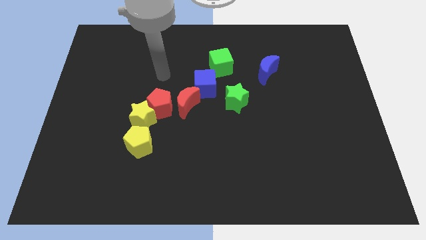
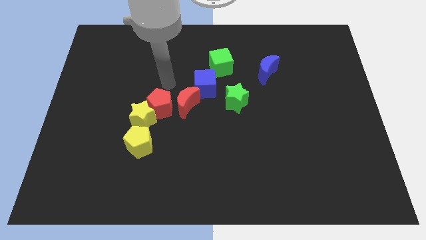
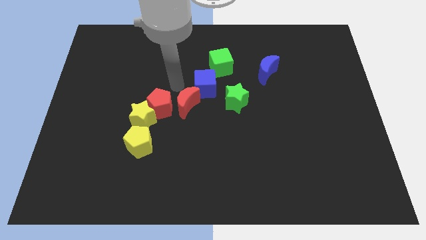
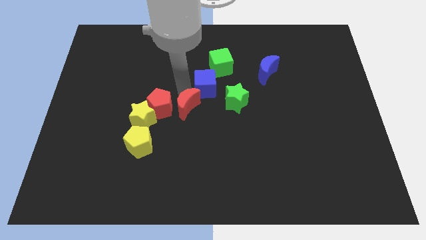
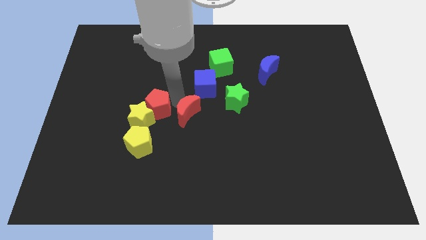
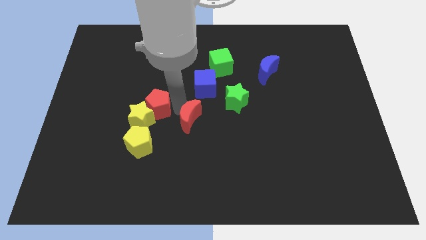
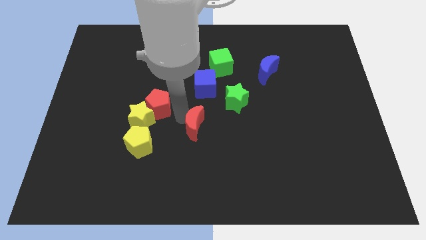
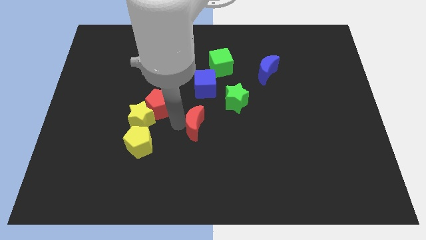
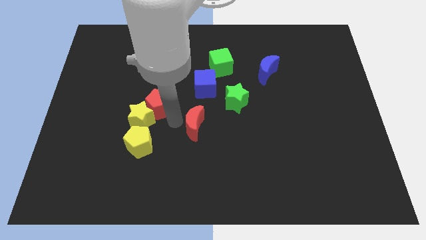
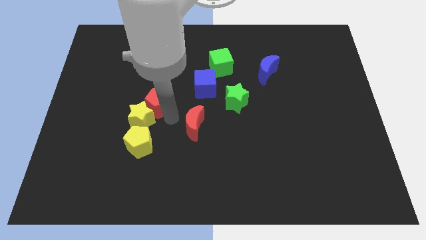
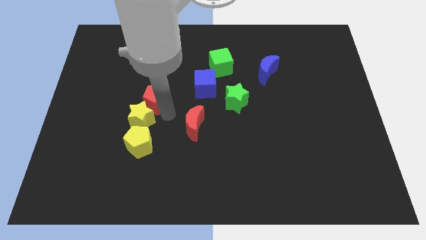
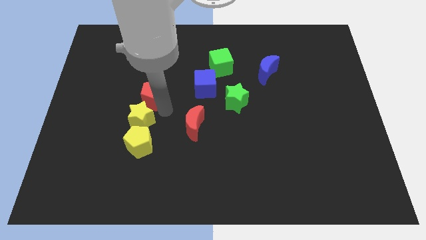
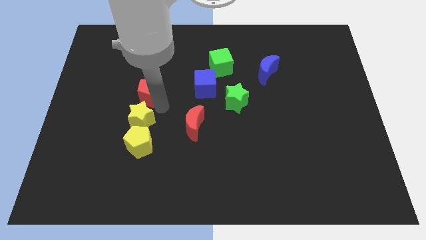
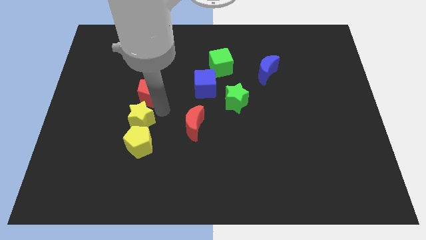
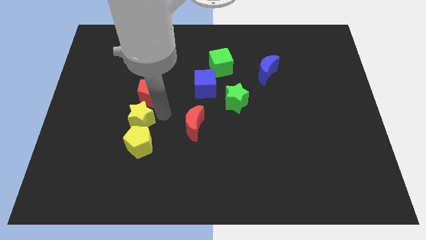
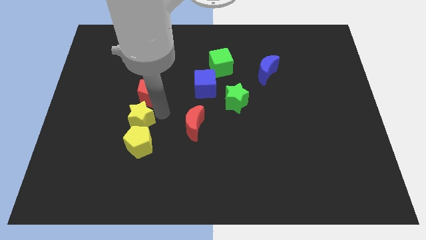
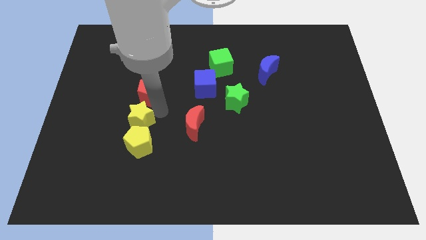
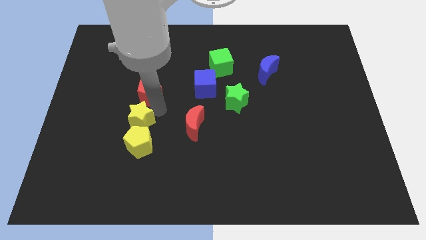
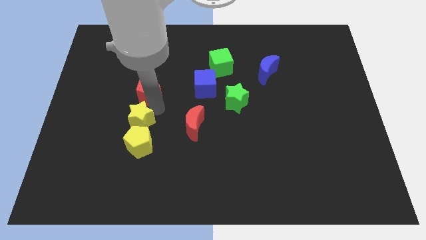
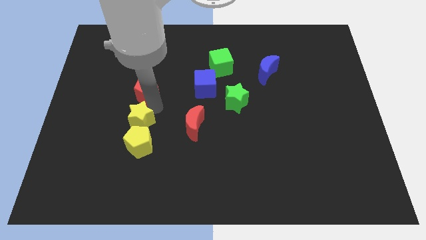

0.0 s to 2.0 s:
move the red pentagon away from the yellow star and red moon

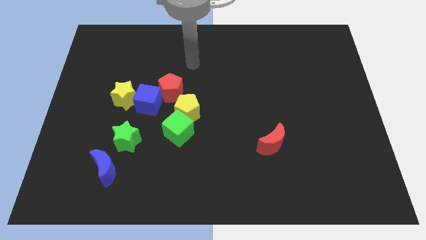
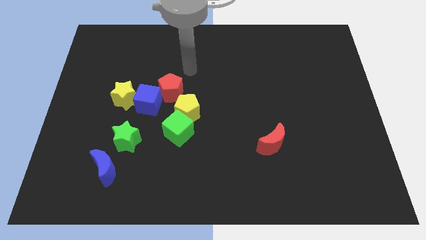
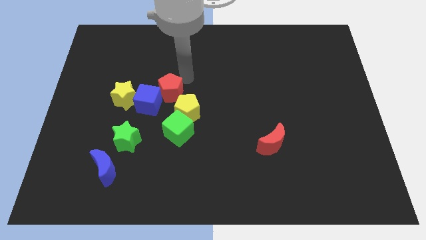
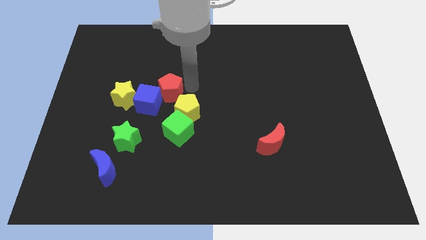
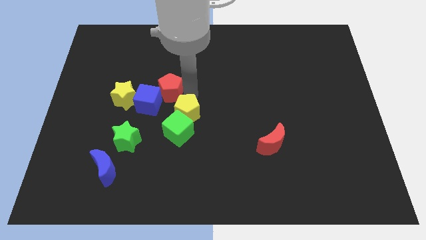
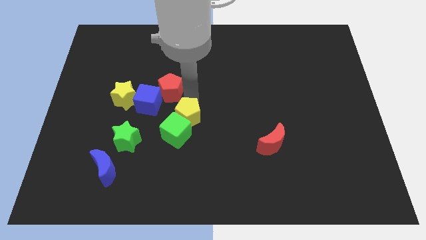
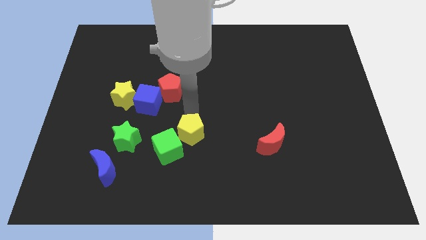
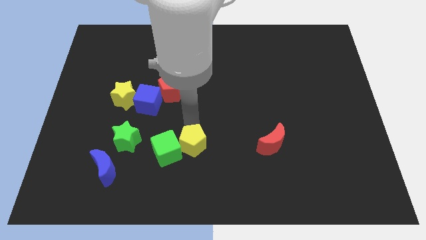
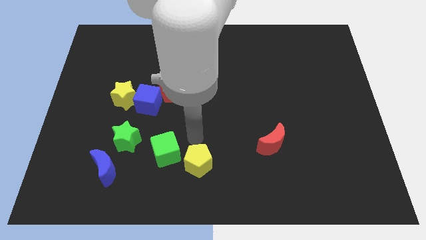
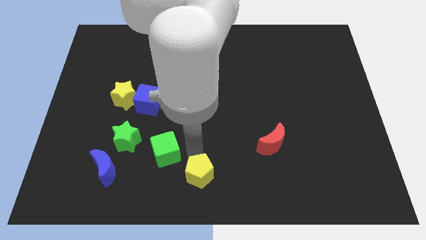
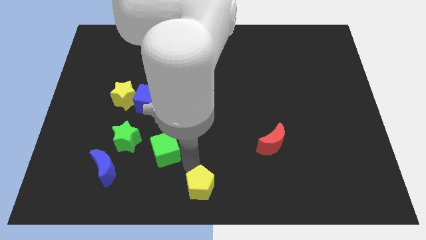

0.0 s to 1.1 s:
separate the green cube from the yellow pentagon

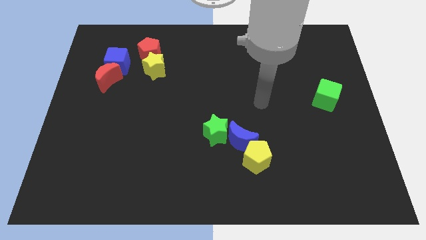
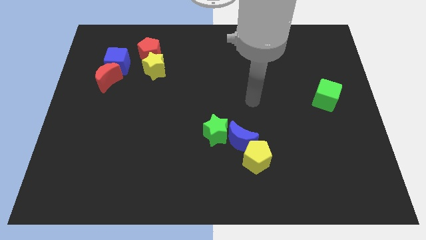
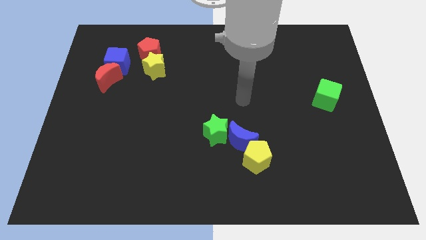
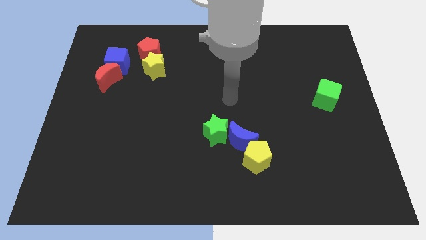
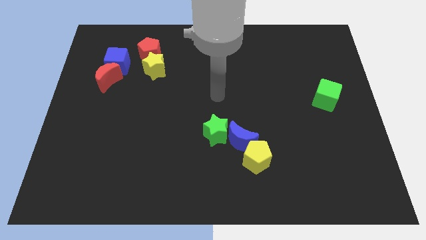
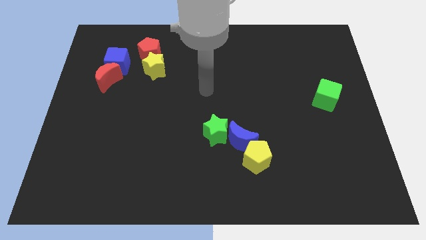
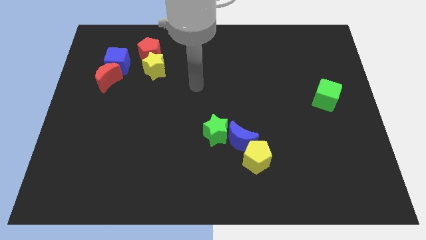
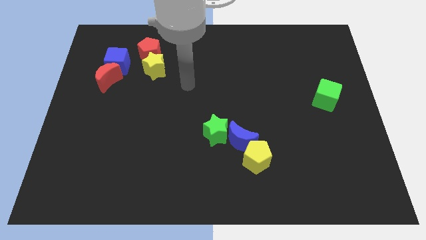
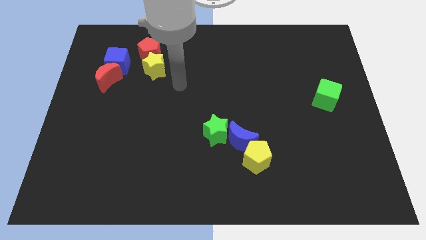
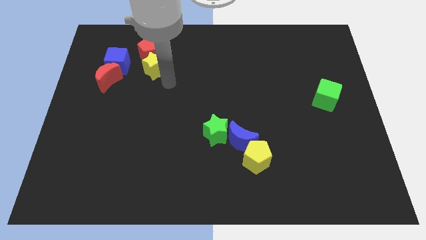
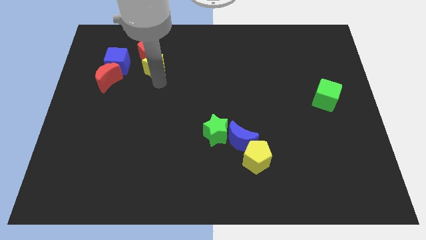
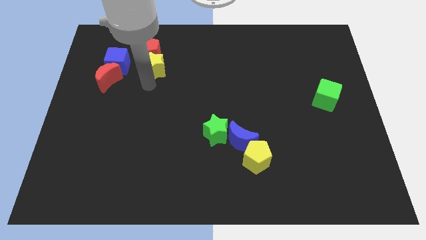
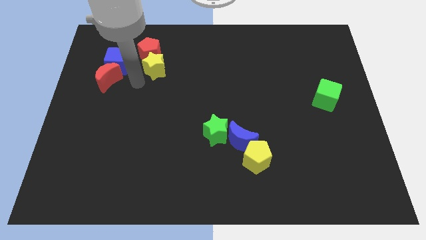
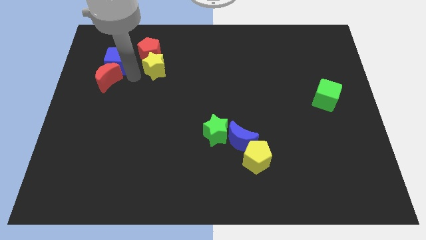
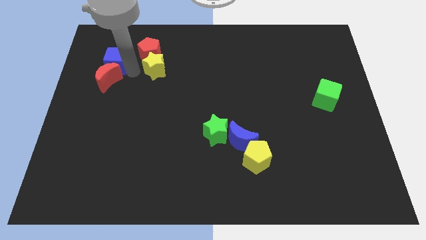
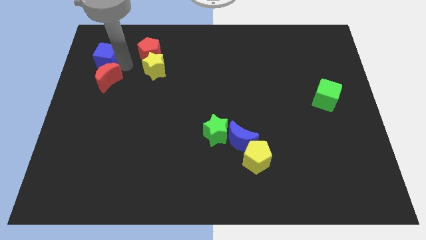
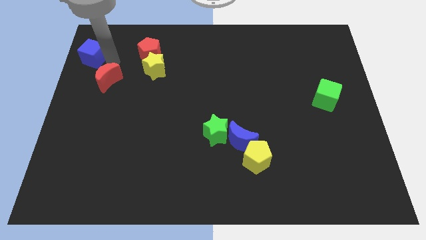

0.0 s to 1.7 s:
move the red moon away from the blue cube

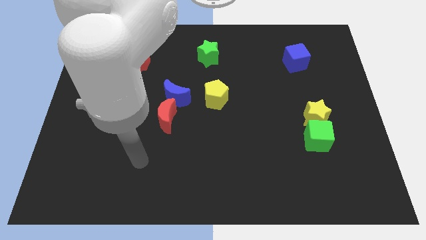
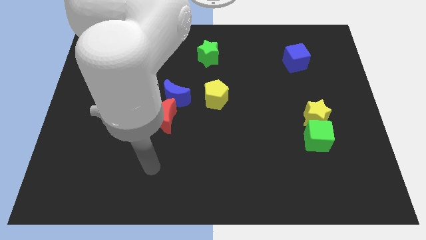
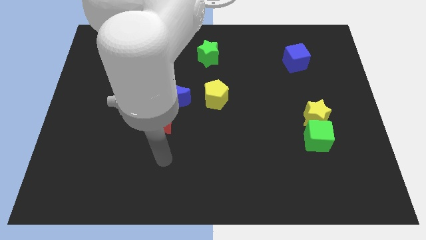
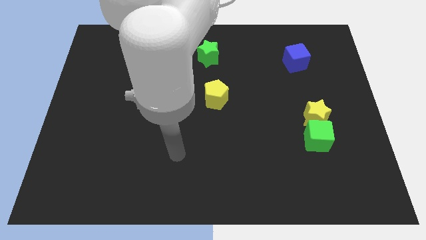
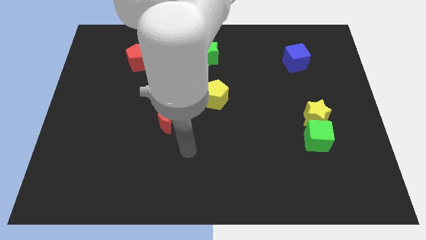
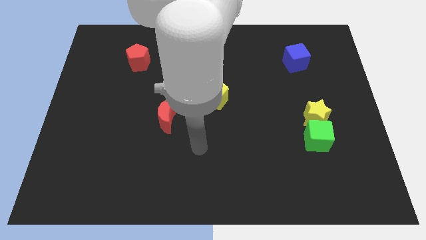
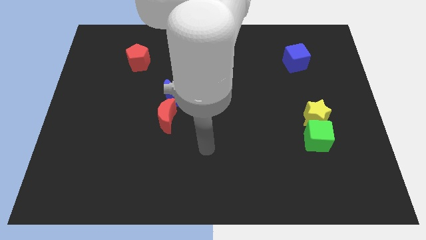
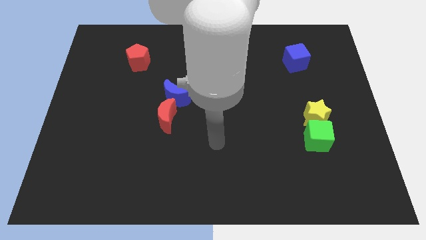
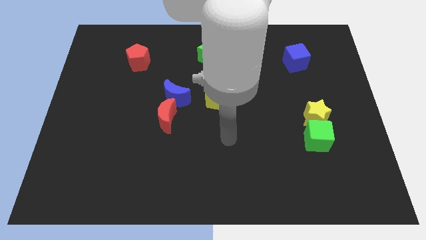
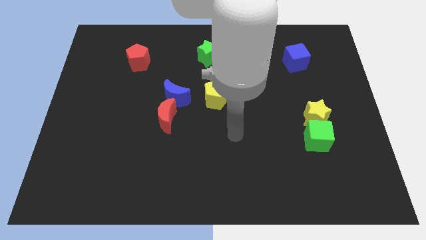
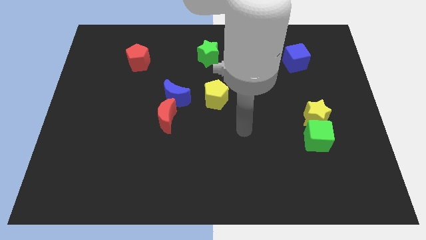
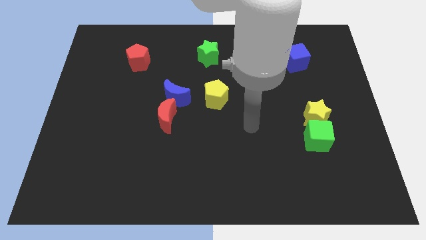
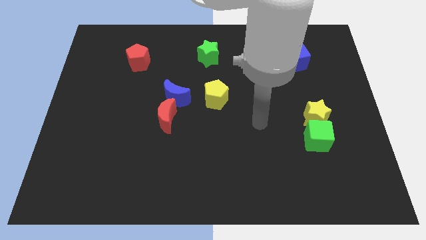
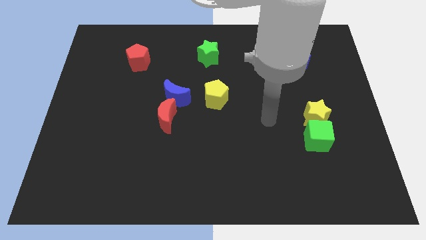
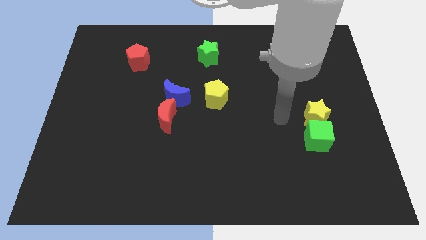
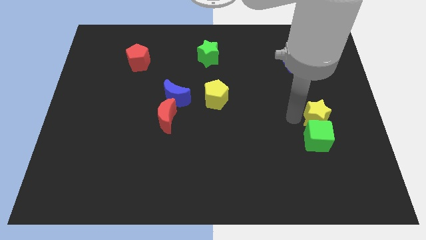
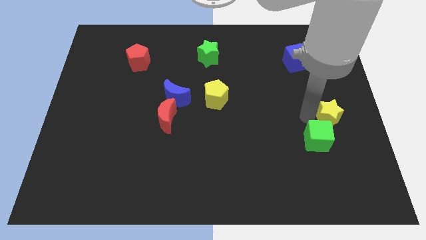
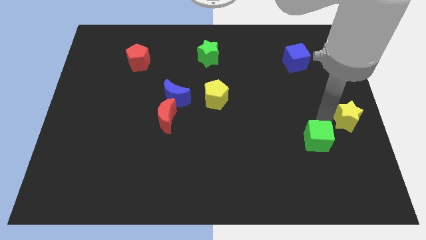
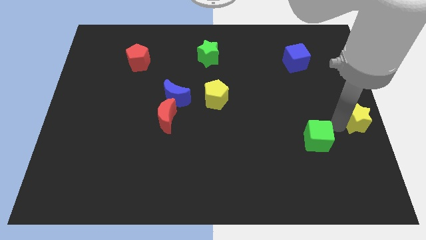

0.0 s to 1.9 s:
move the green cube away from the yellow star

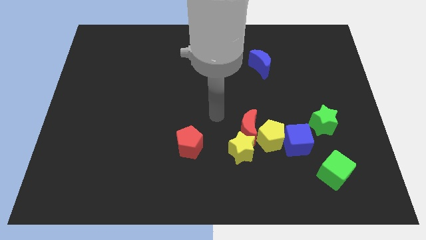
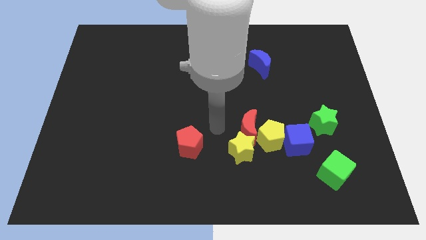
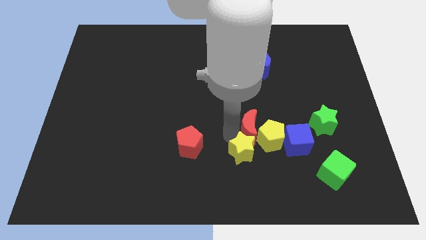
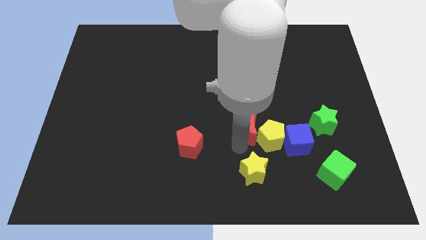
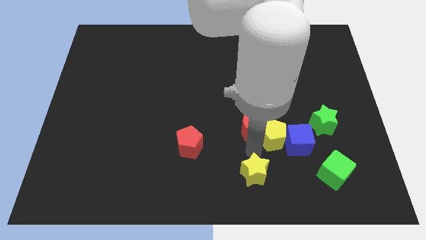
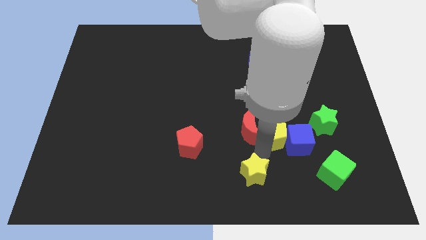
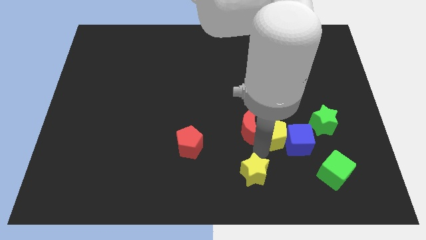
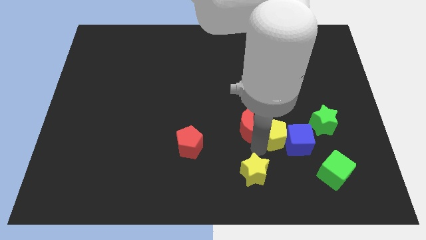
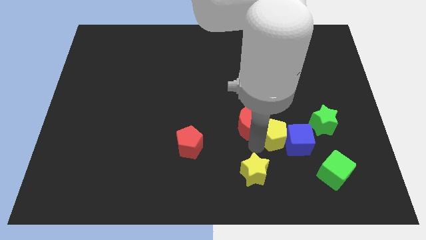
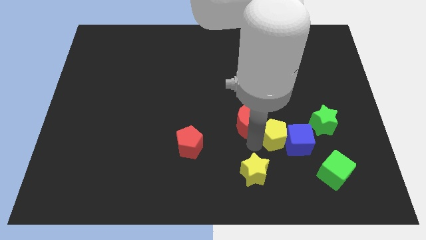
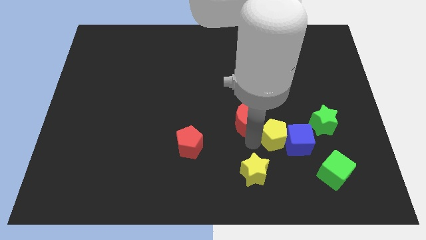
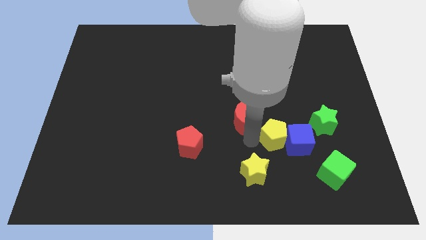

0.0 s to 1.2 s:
separate the red moon from the yellow pentagon and yellow star

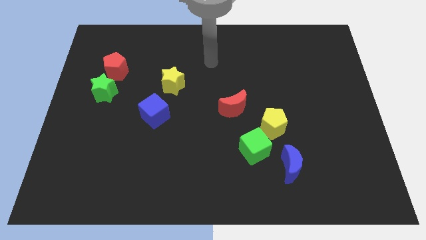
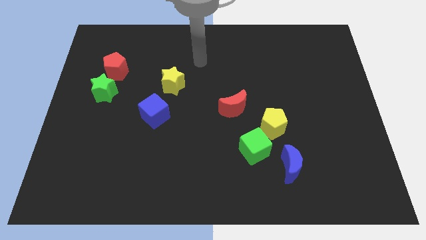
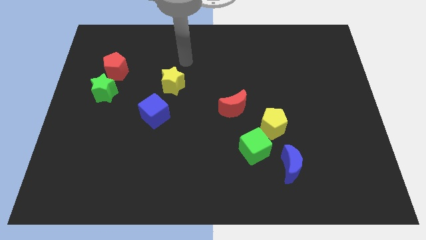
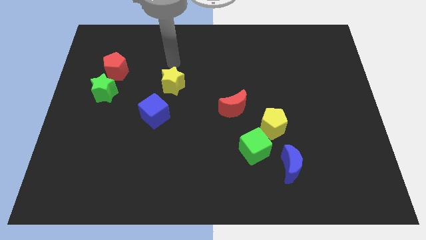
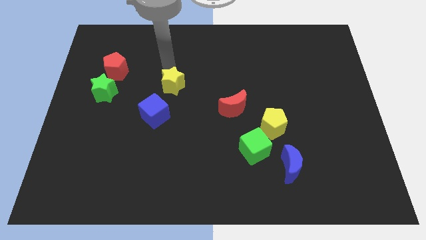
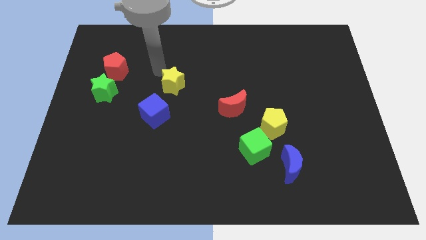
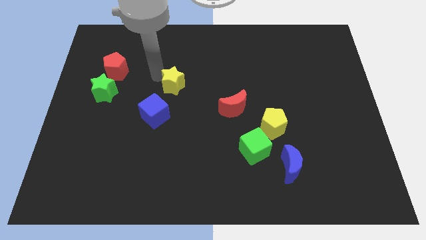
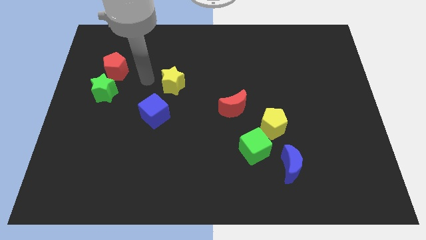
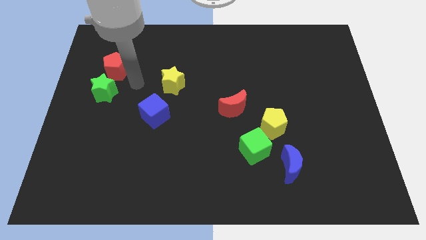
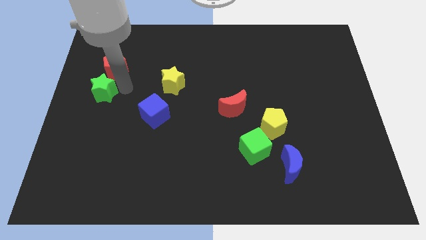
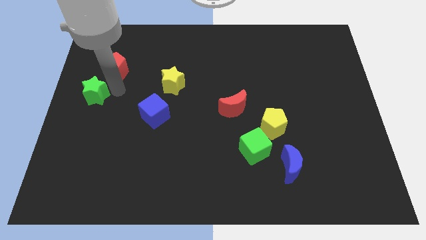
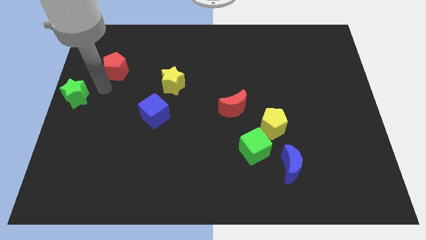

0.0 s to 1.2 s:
pull the red pentagon apart from the green star

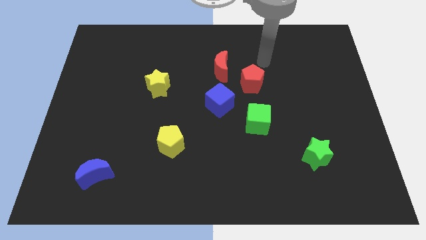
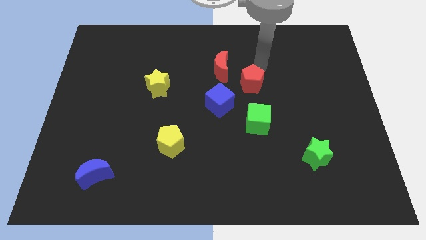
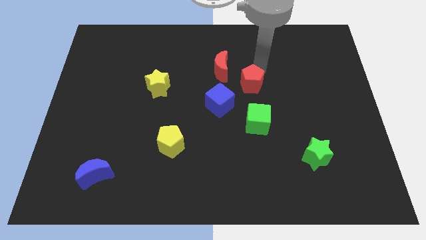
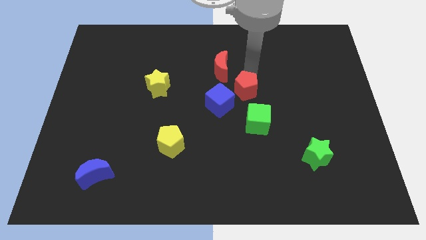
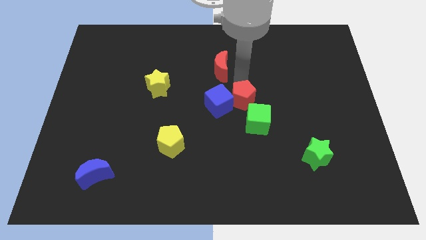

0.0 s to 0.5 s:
separate the red moon from the red pentagon
